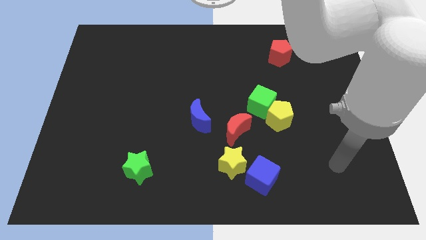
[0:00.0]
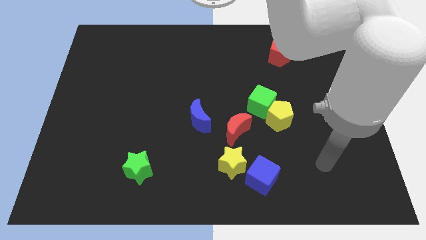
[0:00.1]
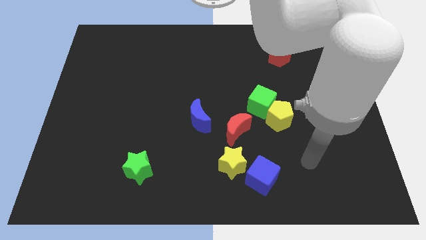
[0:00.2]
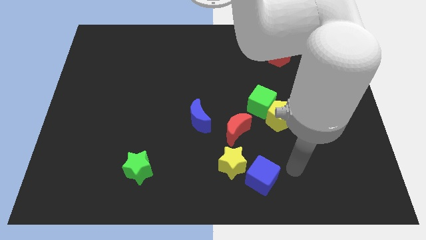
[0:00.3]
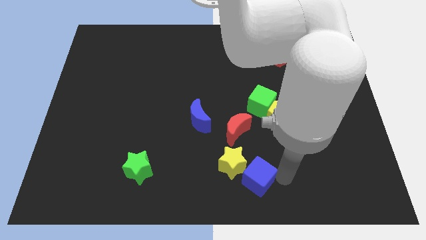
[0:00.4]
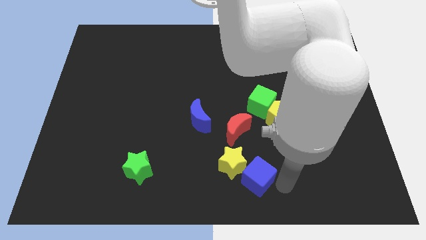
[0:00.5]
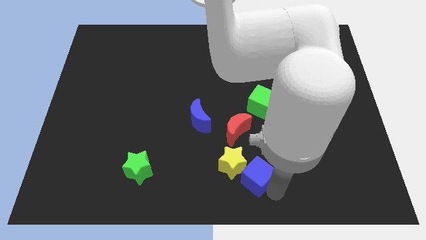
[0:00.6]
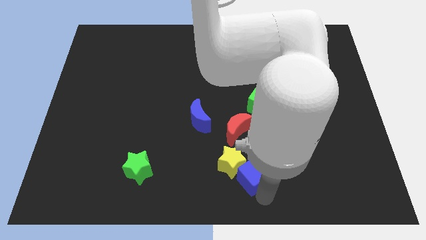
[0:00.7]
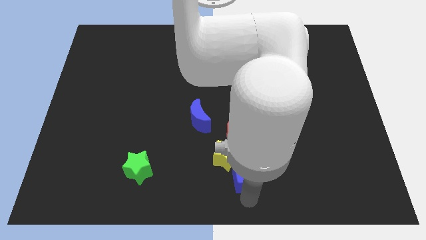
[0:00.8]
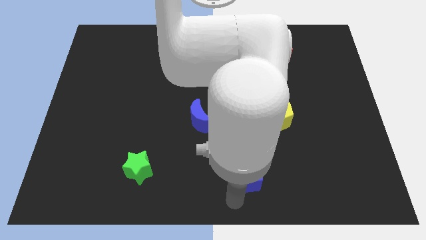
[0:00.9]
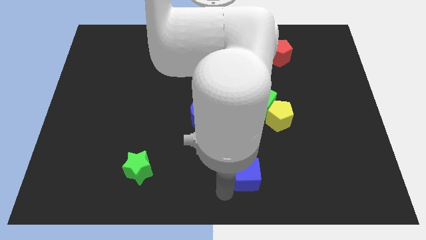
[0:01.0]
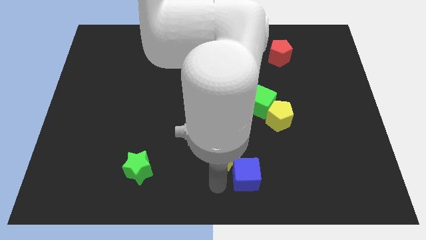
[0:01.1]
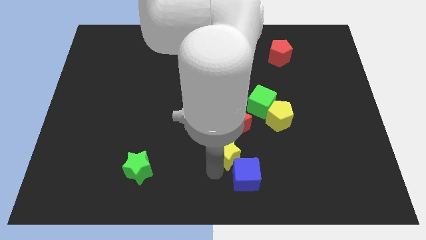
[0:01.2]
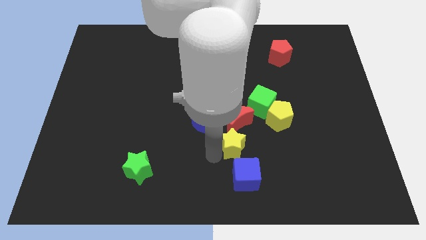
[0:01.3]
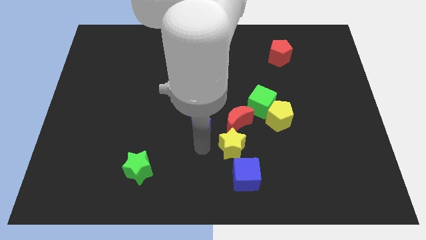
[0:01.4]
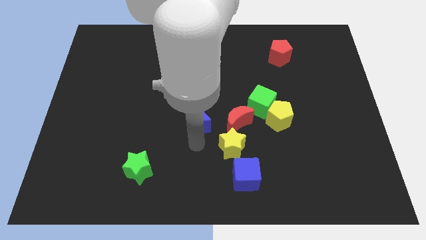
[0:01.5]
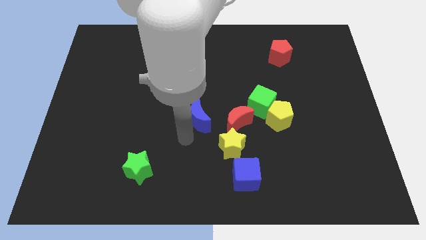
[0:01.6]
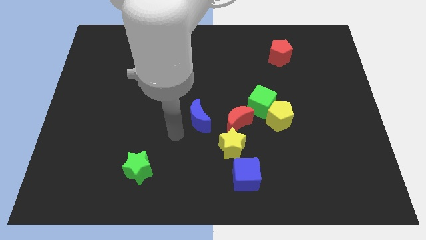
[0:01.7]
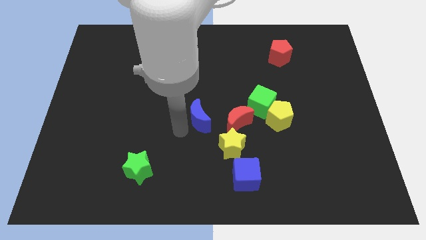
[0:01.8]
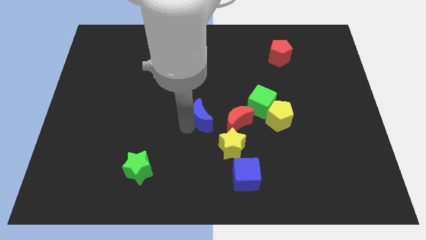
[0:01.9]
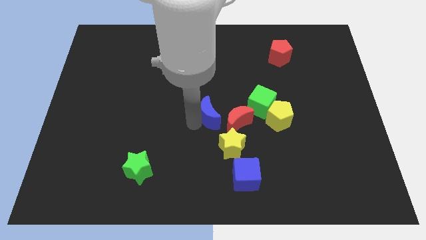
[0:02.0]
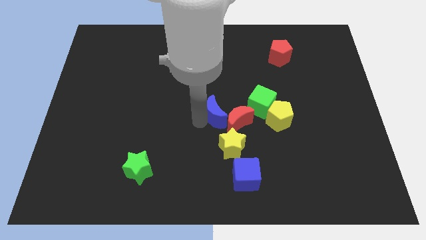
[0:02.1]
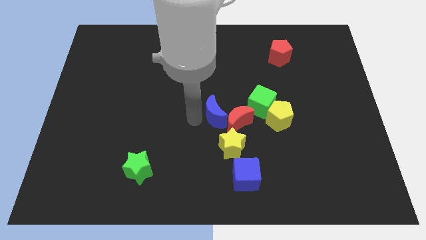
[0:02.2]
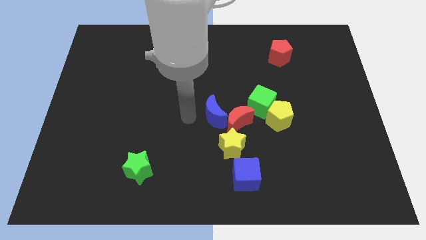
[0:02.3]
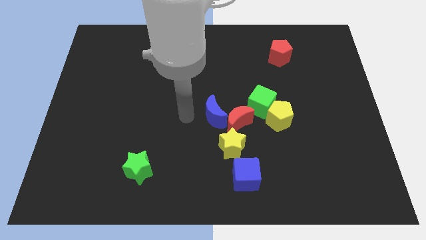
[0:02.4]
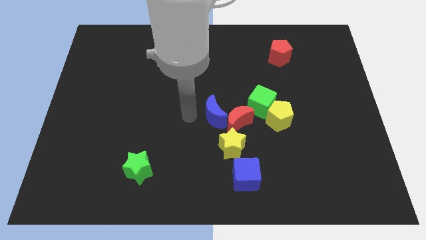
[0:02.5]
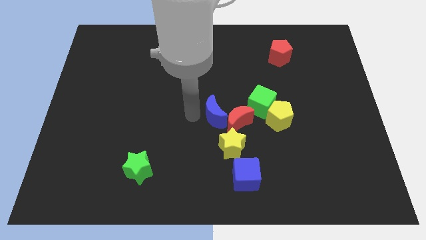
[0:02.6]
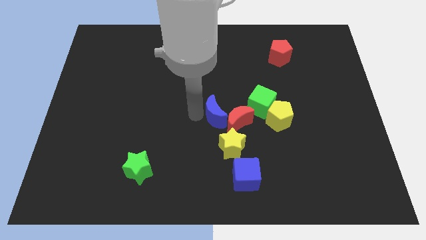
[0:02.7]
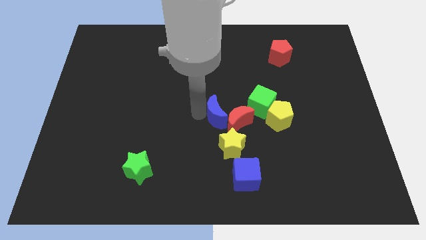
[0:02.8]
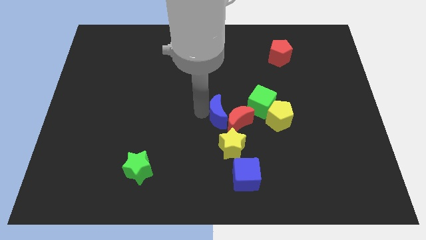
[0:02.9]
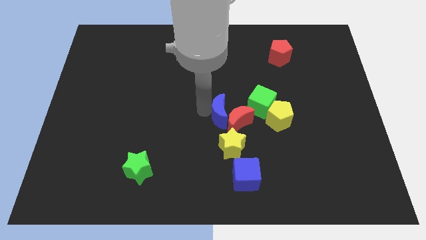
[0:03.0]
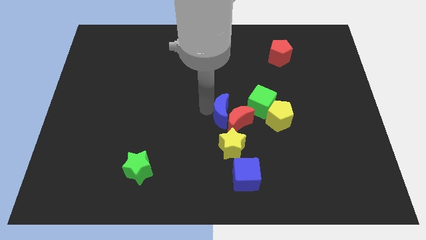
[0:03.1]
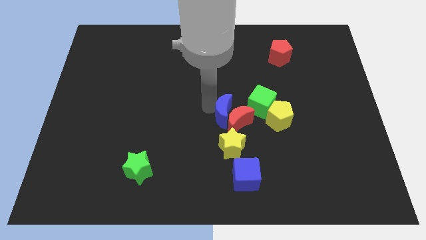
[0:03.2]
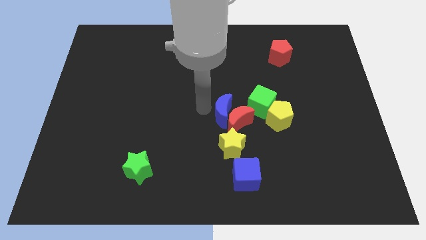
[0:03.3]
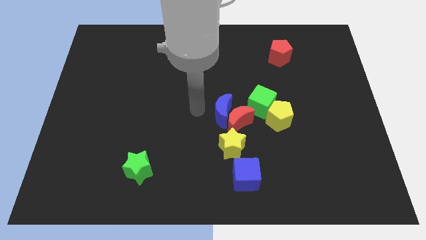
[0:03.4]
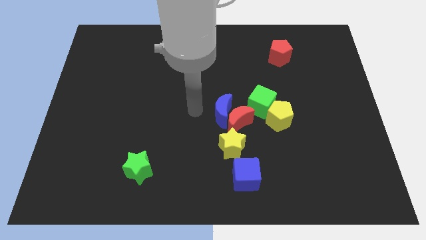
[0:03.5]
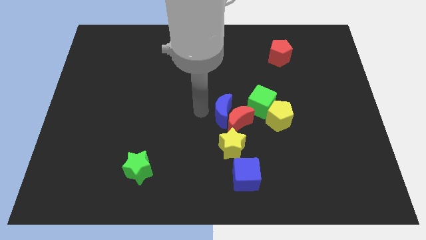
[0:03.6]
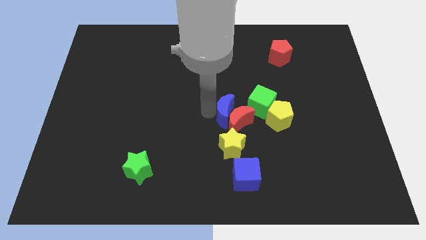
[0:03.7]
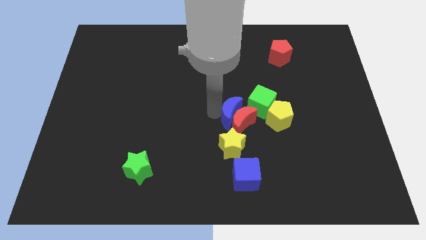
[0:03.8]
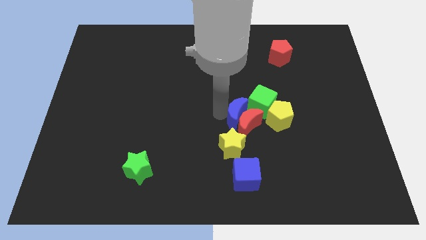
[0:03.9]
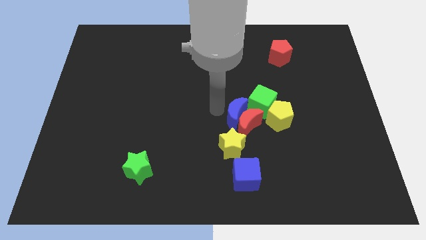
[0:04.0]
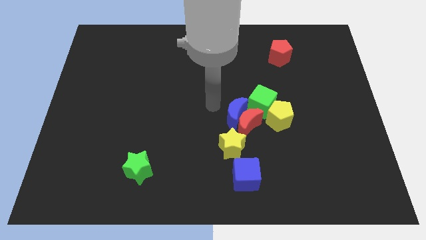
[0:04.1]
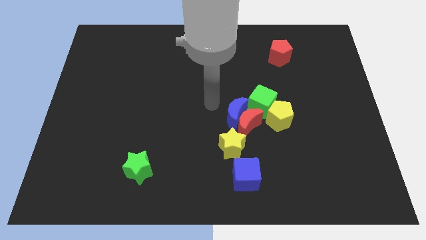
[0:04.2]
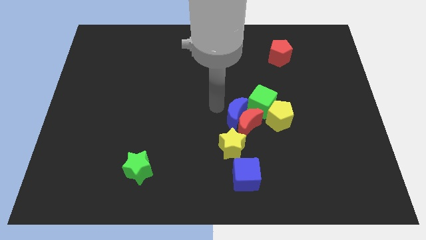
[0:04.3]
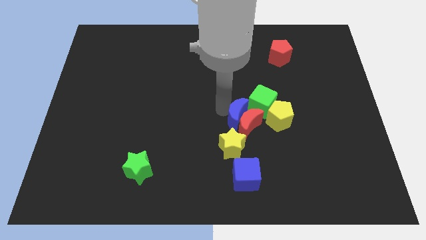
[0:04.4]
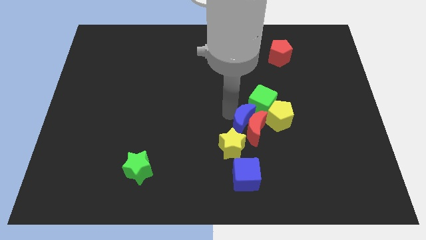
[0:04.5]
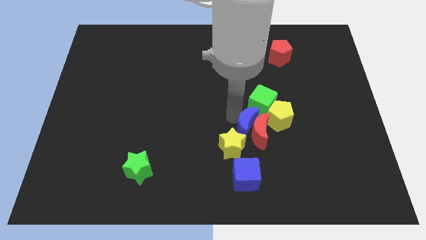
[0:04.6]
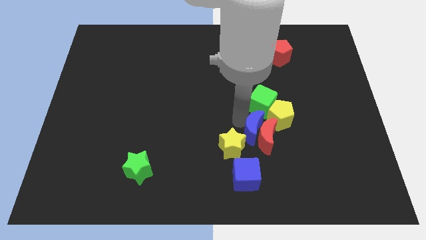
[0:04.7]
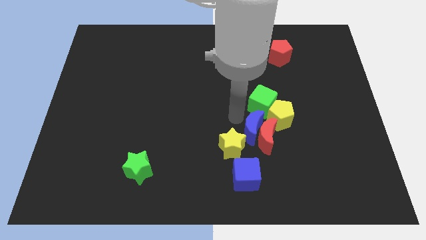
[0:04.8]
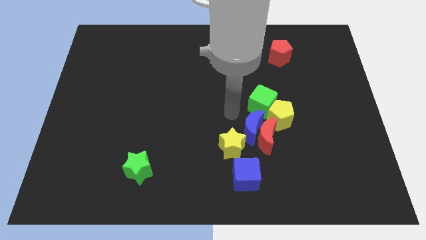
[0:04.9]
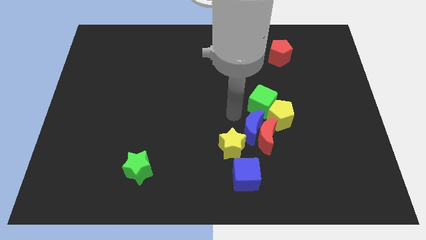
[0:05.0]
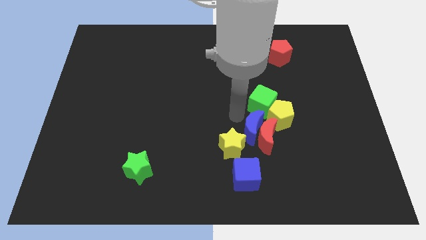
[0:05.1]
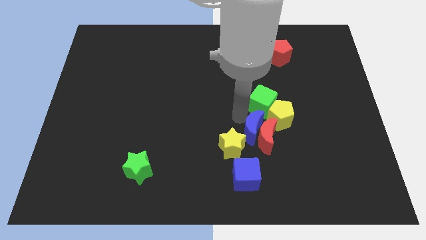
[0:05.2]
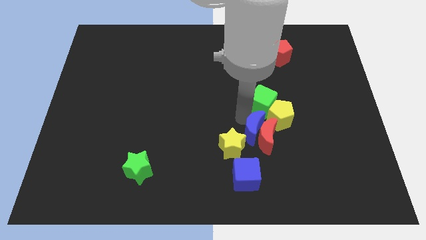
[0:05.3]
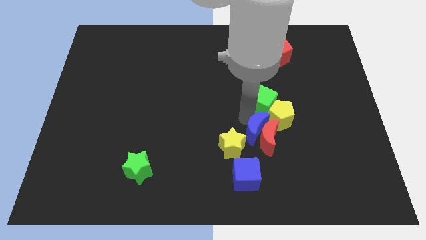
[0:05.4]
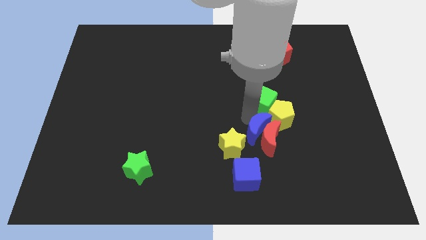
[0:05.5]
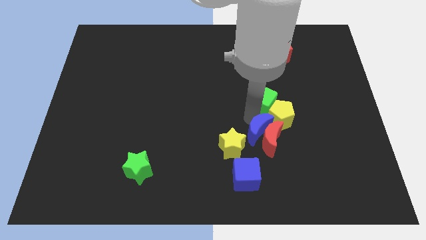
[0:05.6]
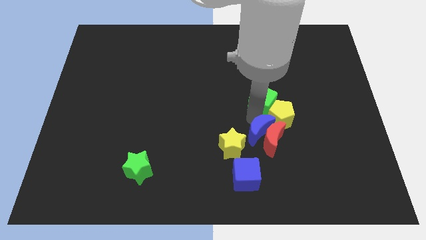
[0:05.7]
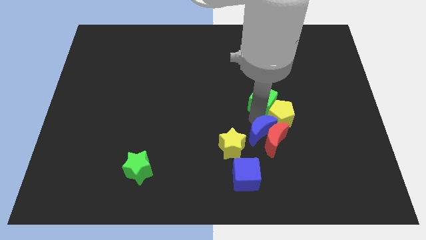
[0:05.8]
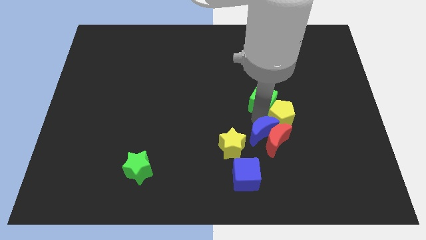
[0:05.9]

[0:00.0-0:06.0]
slide the blue moon to the bottom side of the yellow pentagon
